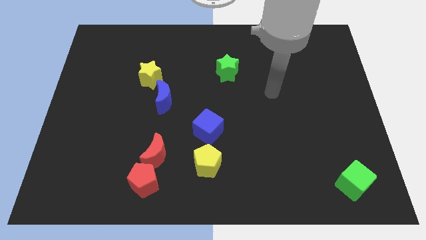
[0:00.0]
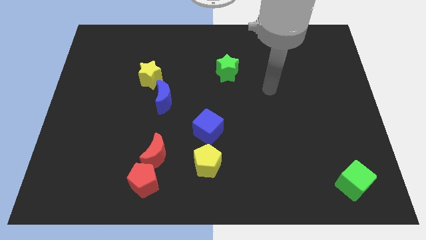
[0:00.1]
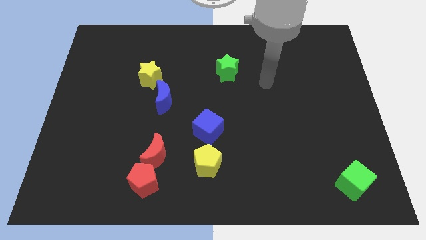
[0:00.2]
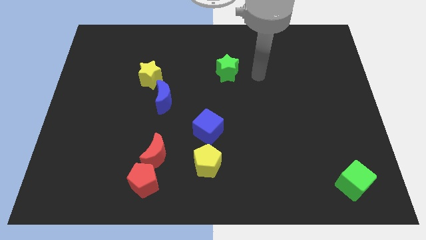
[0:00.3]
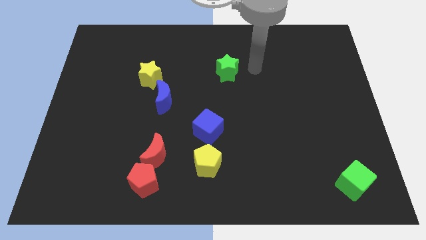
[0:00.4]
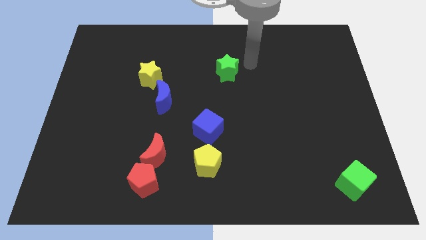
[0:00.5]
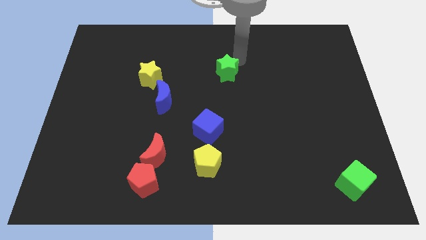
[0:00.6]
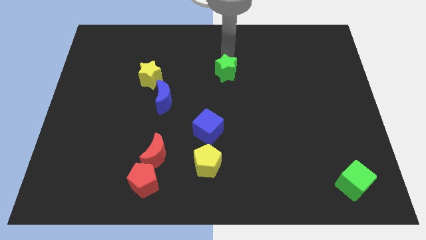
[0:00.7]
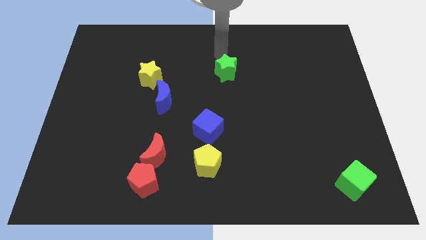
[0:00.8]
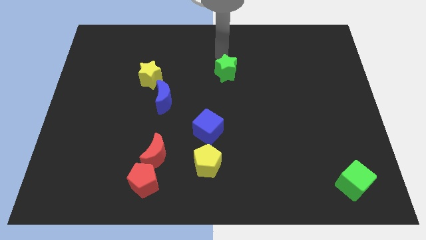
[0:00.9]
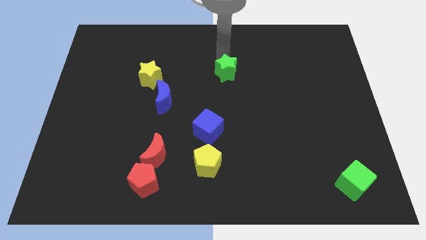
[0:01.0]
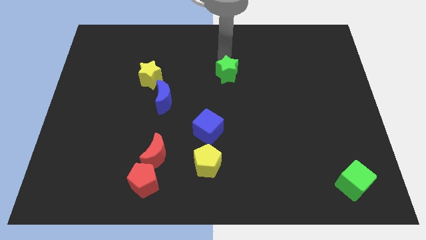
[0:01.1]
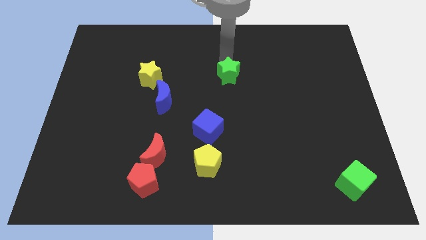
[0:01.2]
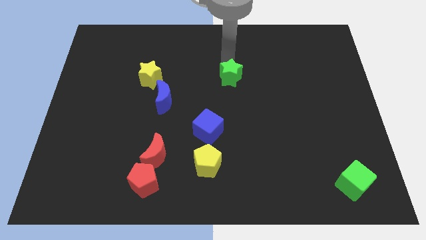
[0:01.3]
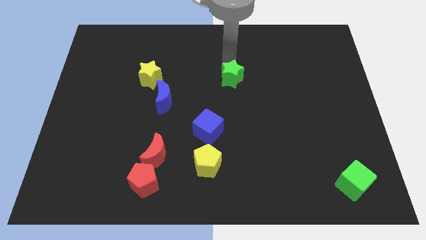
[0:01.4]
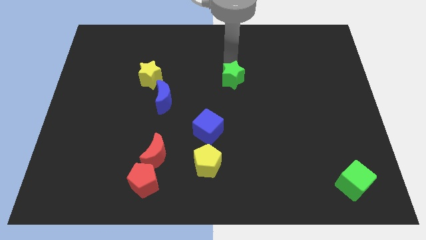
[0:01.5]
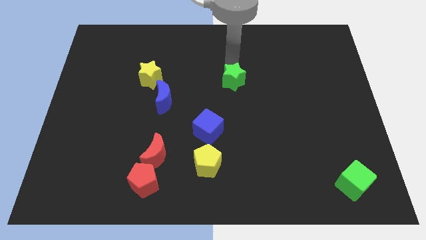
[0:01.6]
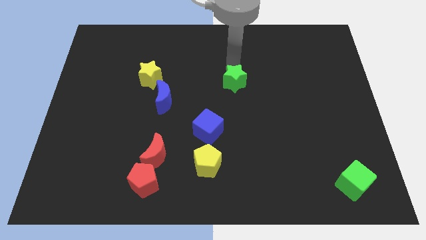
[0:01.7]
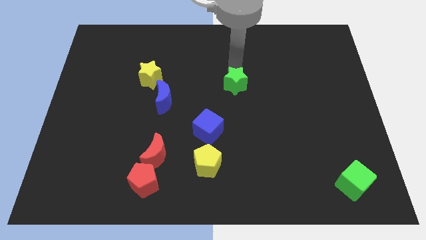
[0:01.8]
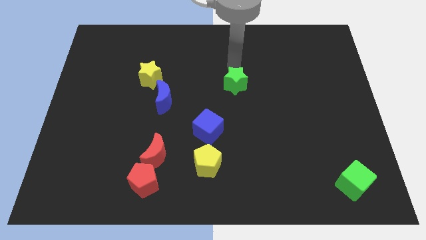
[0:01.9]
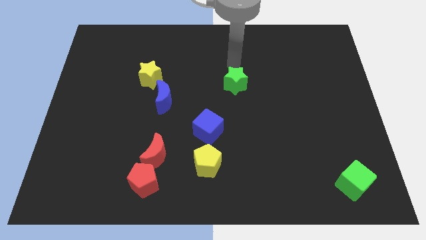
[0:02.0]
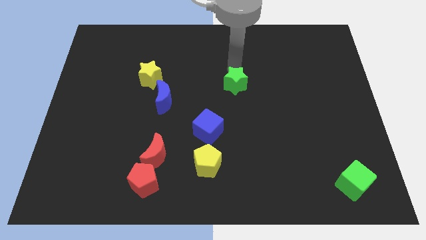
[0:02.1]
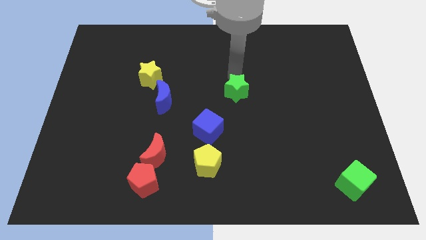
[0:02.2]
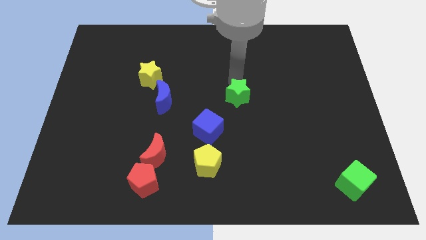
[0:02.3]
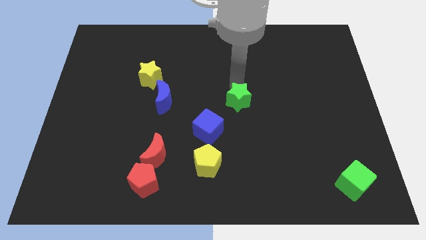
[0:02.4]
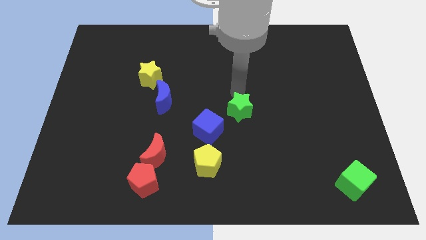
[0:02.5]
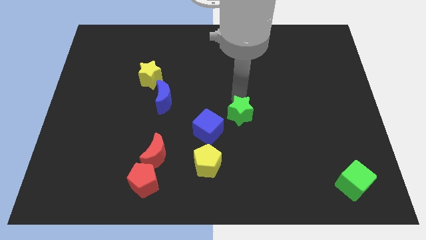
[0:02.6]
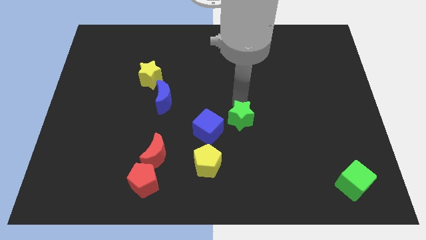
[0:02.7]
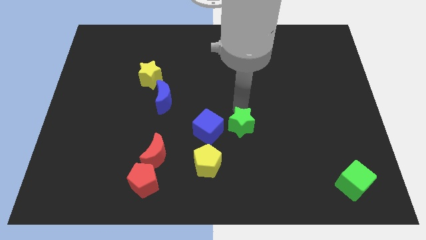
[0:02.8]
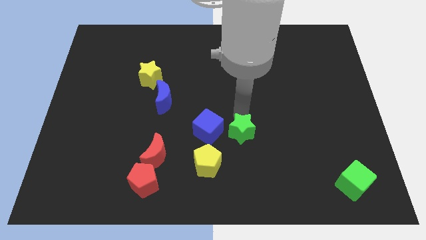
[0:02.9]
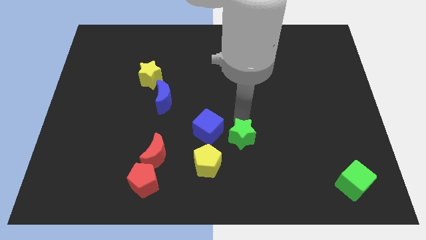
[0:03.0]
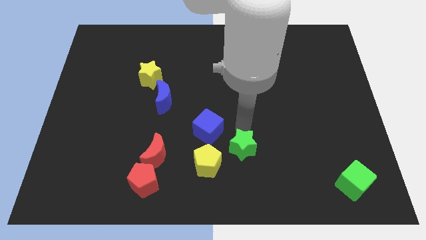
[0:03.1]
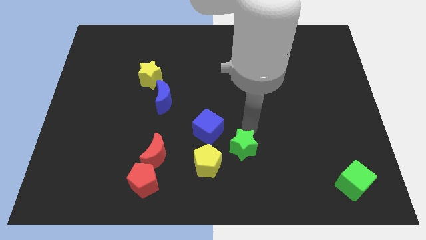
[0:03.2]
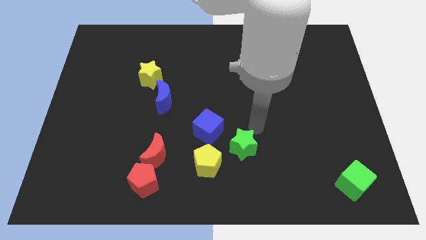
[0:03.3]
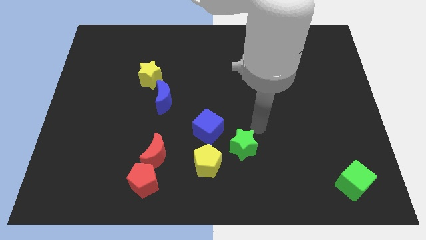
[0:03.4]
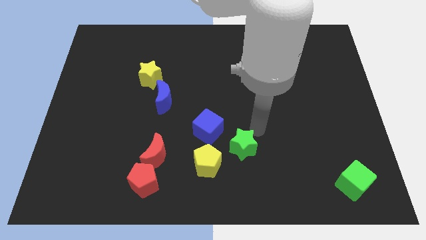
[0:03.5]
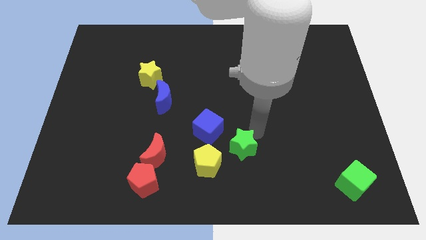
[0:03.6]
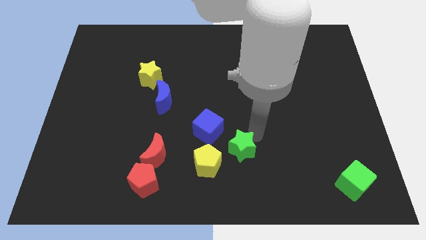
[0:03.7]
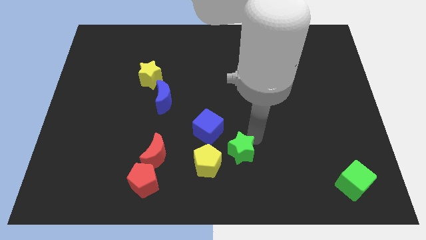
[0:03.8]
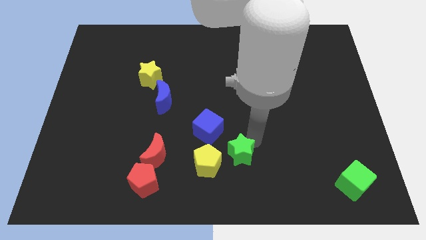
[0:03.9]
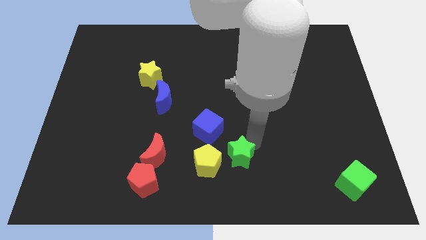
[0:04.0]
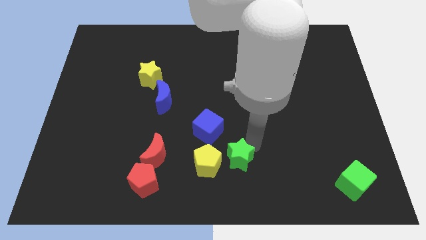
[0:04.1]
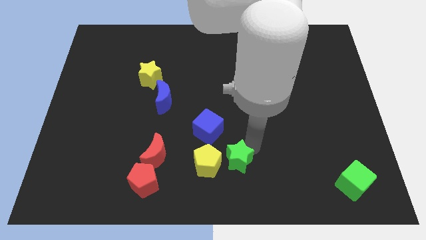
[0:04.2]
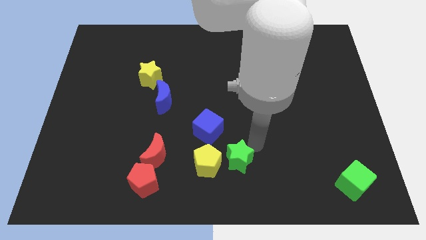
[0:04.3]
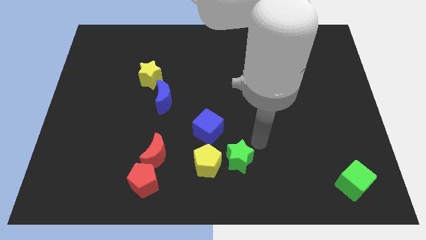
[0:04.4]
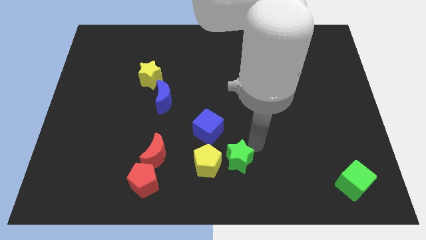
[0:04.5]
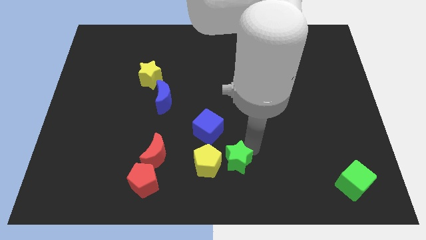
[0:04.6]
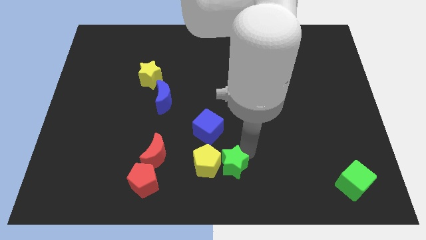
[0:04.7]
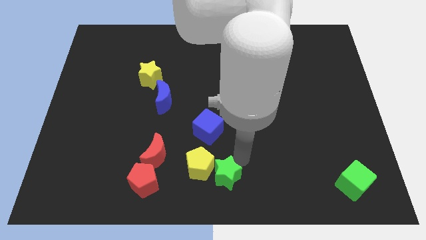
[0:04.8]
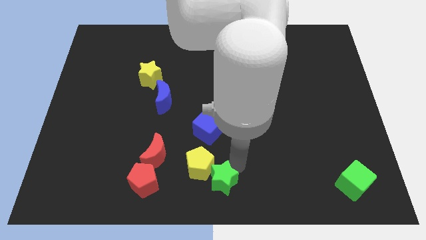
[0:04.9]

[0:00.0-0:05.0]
push the green star to the right side of the red pentagon

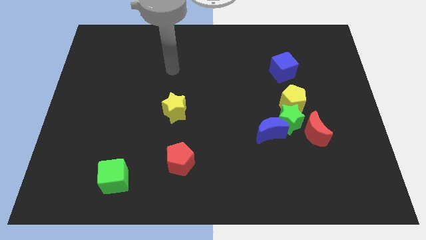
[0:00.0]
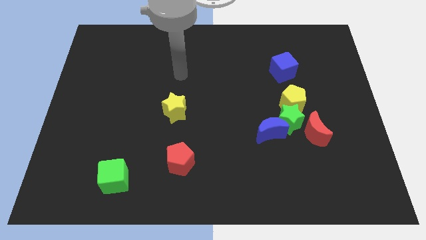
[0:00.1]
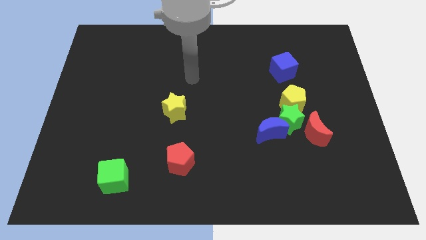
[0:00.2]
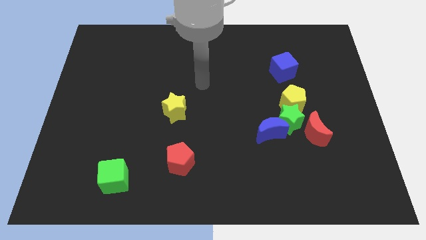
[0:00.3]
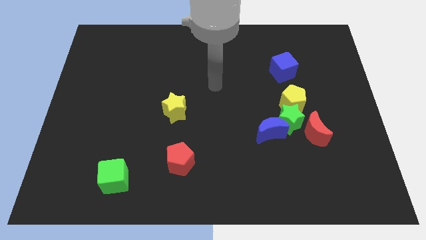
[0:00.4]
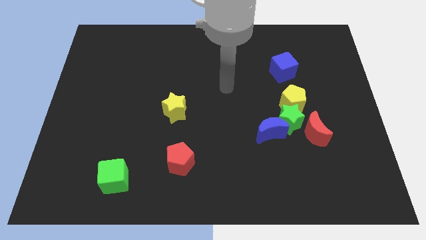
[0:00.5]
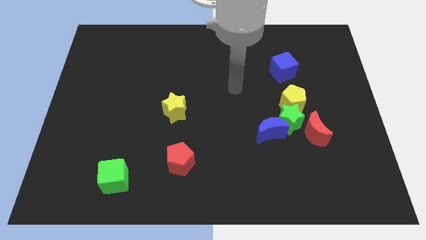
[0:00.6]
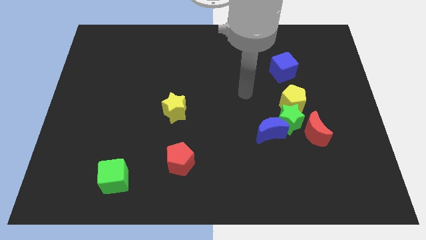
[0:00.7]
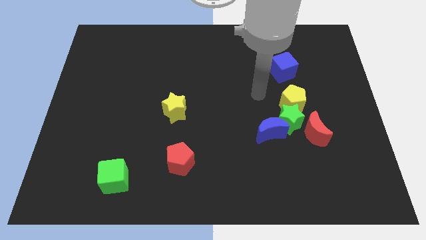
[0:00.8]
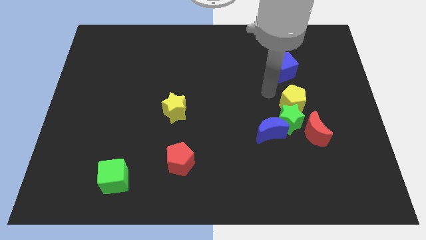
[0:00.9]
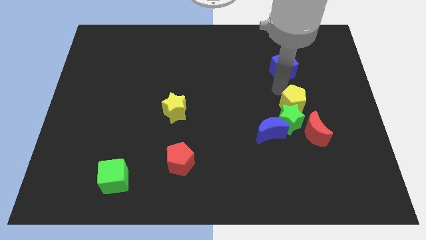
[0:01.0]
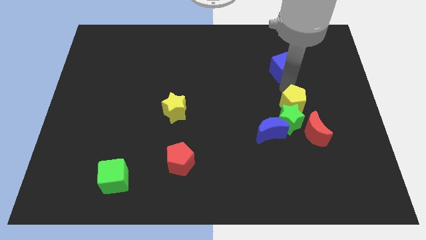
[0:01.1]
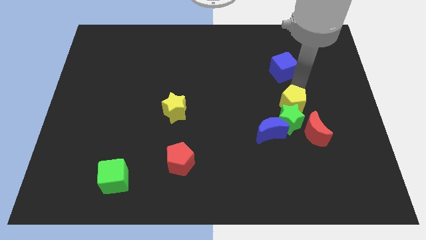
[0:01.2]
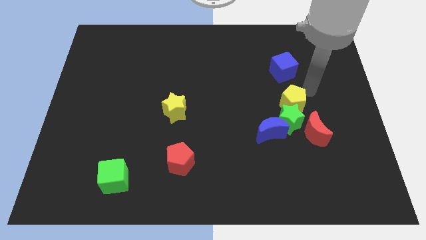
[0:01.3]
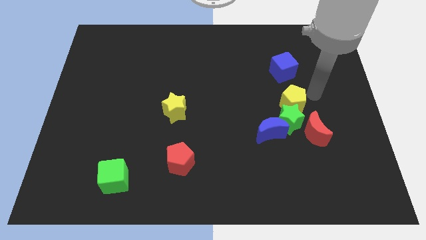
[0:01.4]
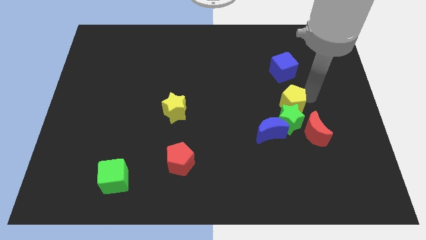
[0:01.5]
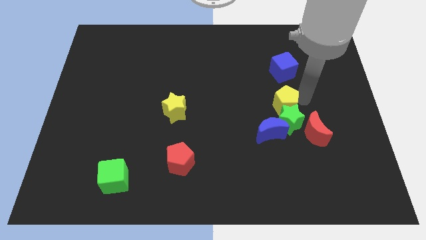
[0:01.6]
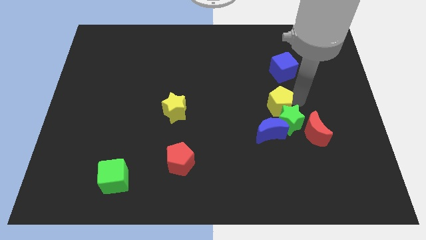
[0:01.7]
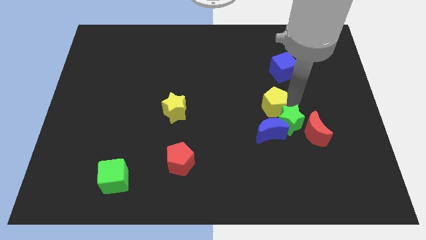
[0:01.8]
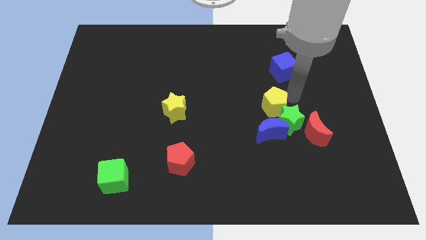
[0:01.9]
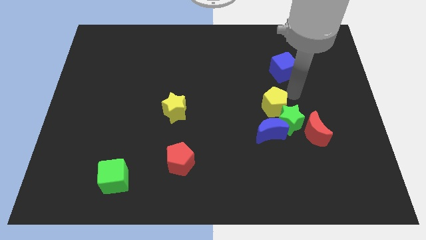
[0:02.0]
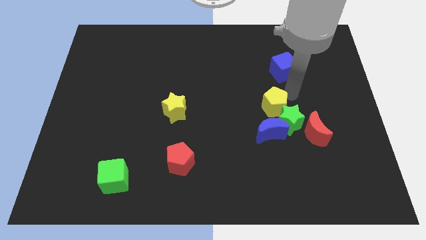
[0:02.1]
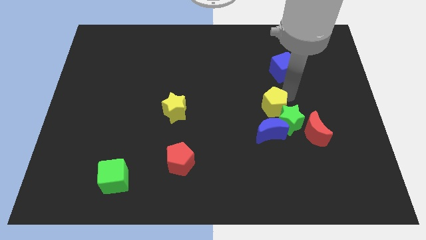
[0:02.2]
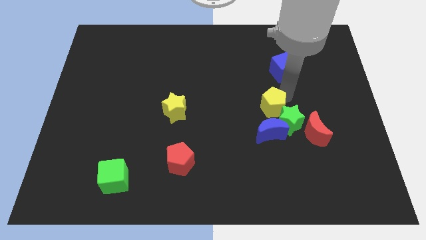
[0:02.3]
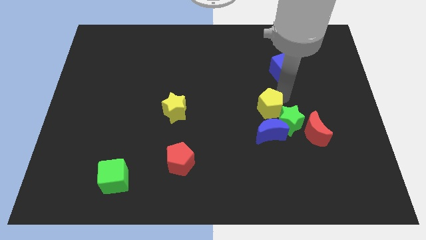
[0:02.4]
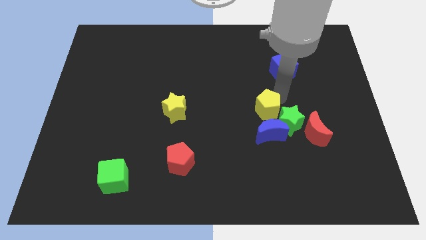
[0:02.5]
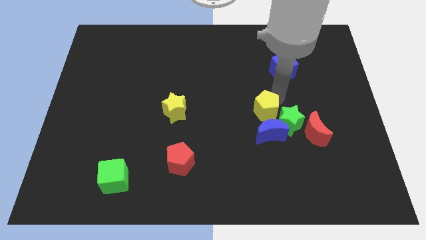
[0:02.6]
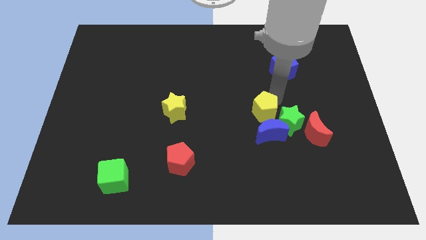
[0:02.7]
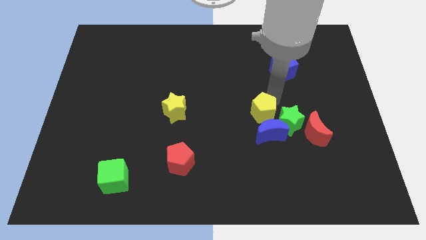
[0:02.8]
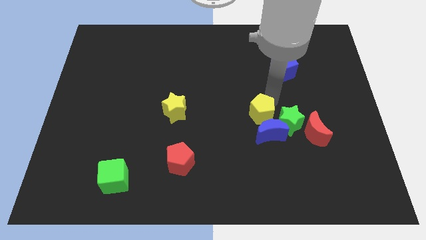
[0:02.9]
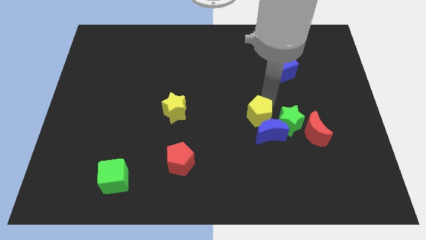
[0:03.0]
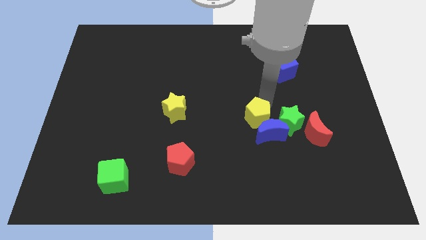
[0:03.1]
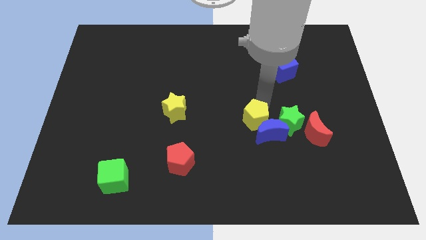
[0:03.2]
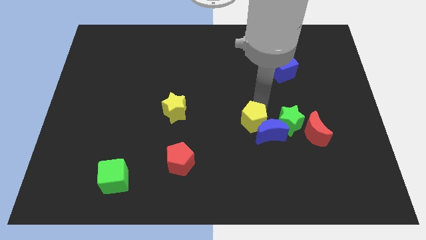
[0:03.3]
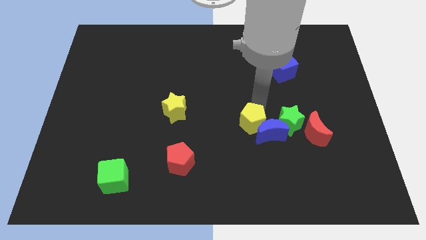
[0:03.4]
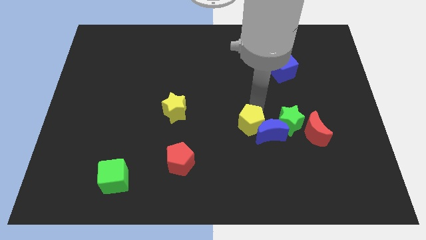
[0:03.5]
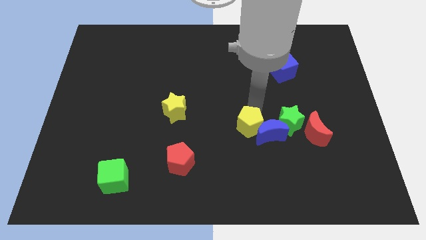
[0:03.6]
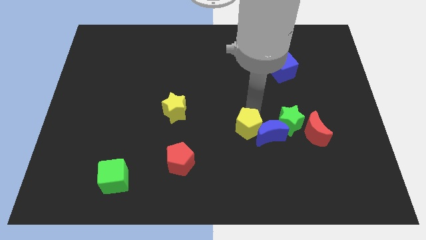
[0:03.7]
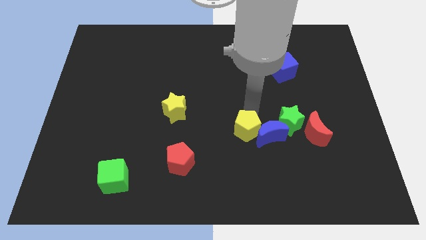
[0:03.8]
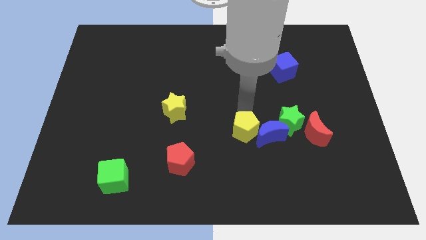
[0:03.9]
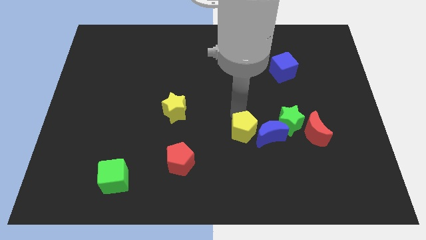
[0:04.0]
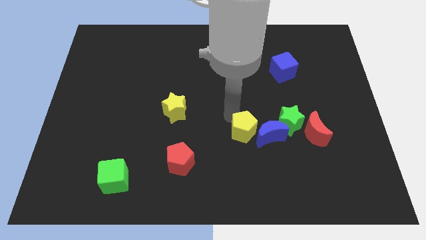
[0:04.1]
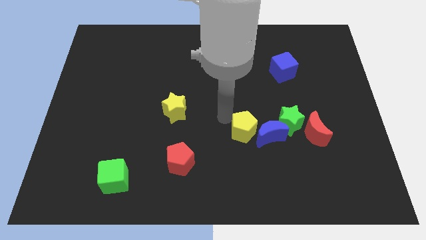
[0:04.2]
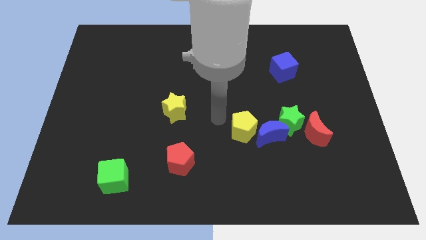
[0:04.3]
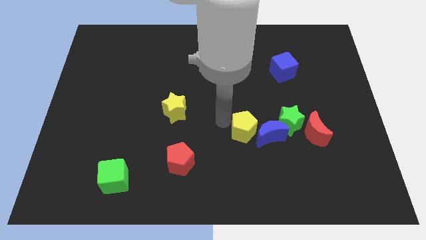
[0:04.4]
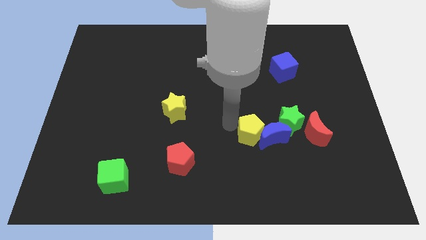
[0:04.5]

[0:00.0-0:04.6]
slide the yellow pentagon diagonally down and to the left of the green star
